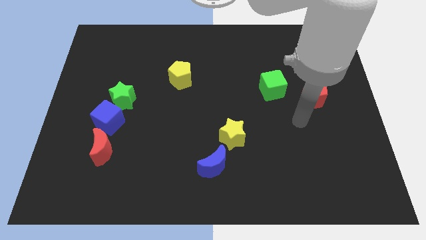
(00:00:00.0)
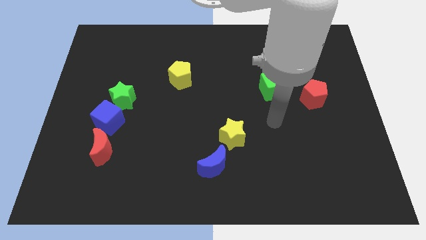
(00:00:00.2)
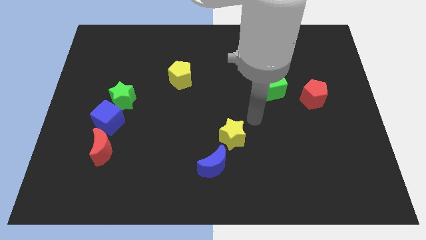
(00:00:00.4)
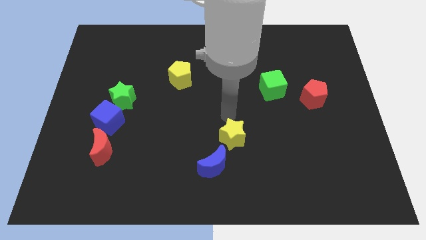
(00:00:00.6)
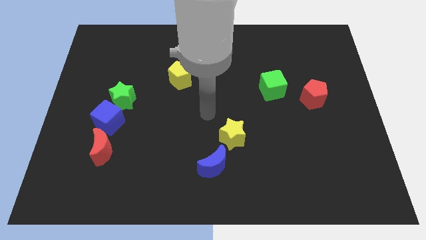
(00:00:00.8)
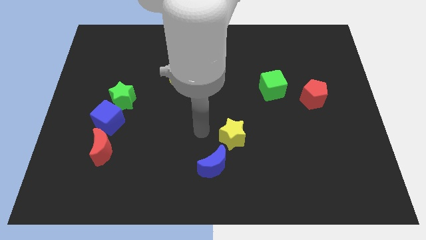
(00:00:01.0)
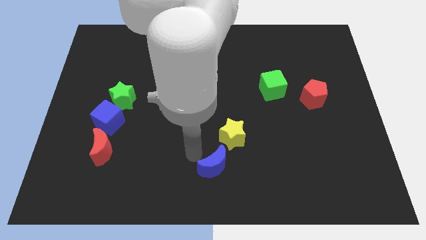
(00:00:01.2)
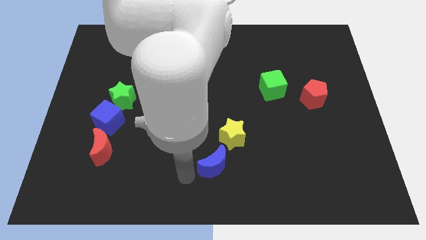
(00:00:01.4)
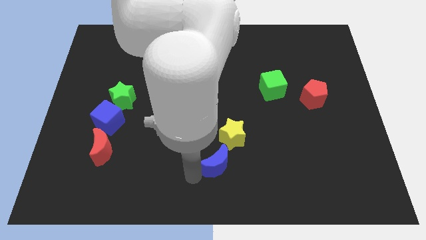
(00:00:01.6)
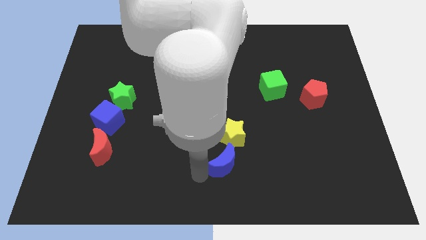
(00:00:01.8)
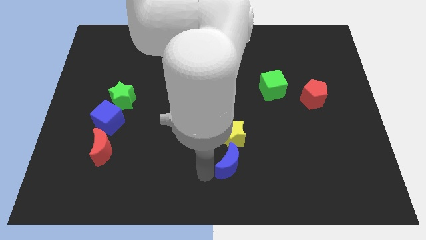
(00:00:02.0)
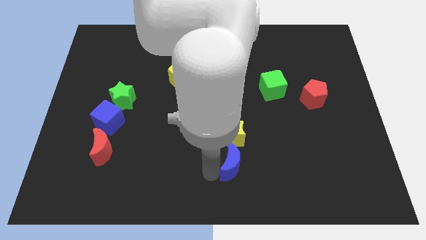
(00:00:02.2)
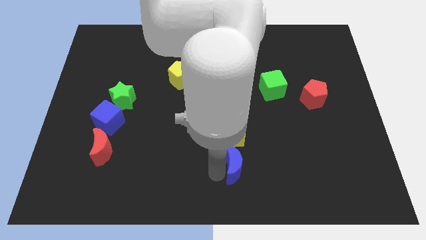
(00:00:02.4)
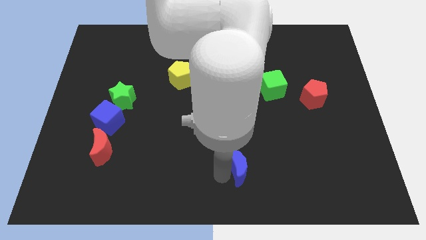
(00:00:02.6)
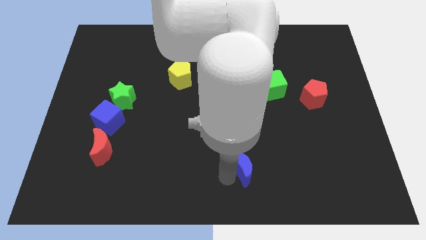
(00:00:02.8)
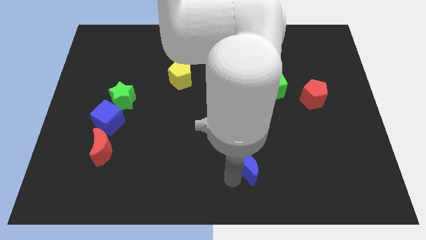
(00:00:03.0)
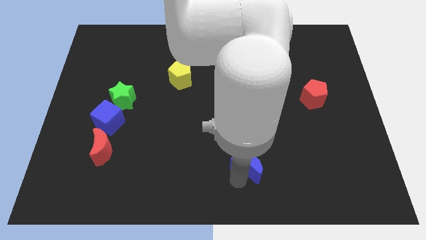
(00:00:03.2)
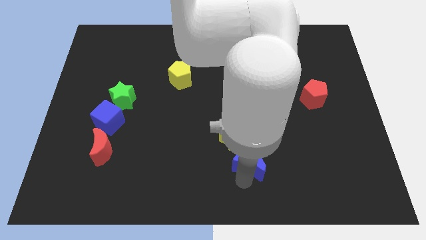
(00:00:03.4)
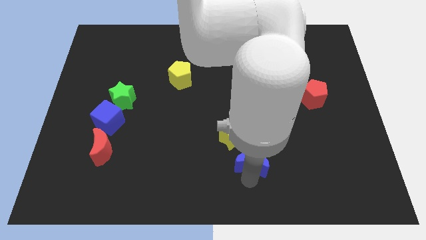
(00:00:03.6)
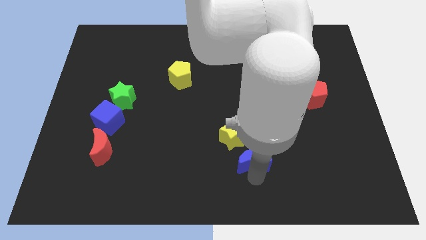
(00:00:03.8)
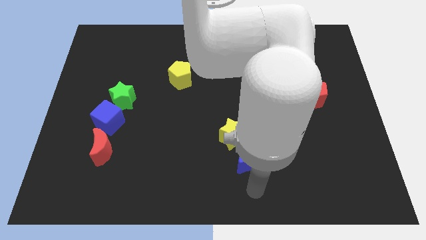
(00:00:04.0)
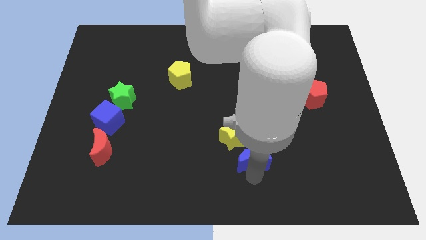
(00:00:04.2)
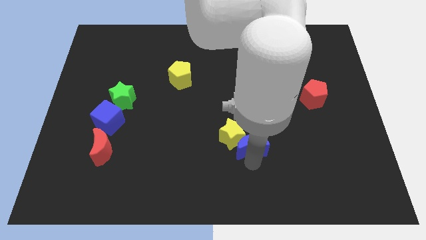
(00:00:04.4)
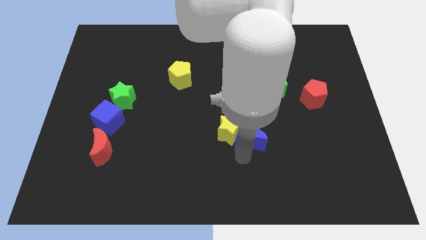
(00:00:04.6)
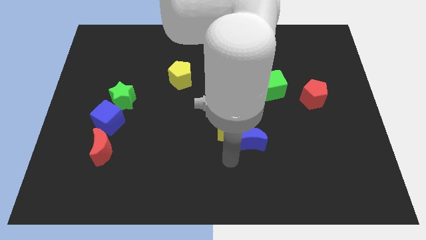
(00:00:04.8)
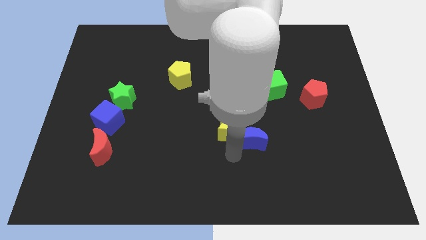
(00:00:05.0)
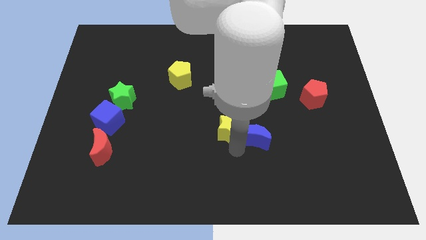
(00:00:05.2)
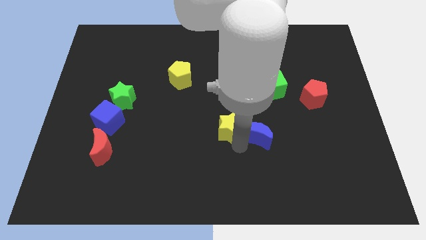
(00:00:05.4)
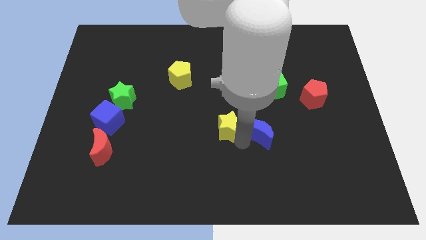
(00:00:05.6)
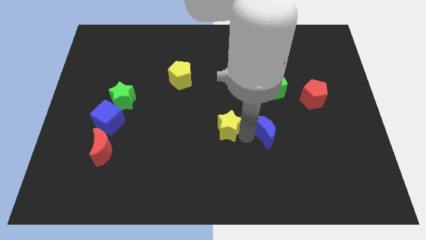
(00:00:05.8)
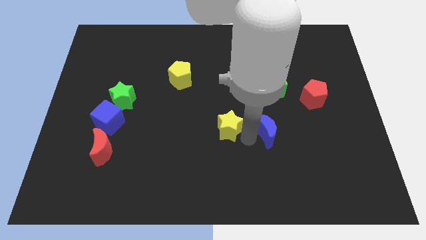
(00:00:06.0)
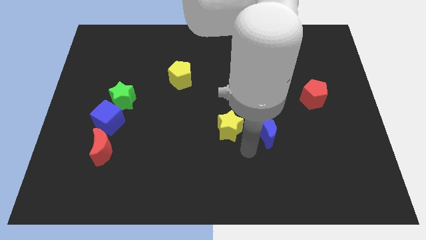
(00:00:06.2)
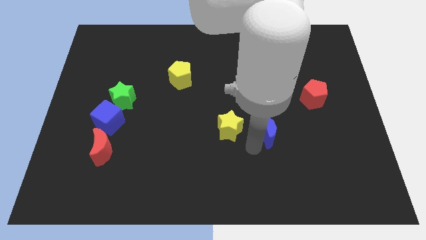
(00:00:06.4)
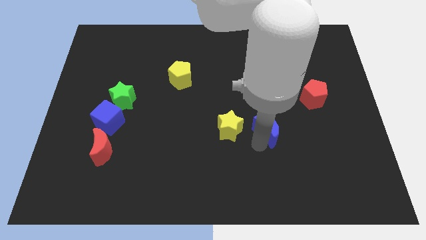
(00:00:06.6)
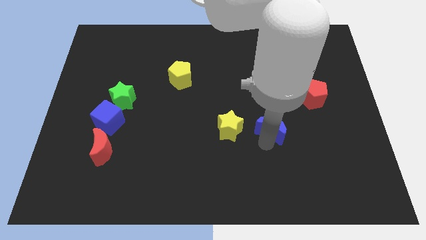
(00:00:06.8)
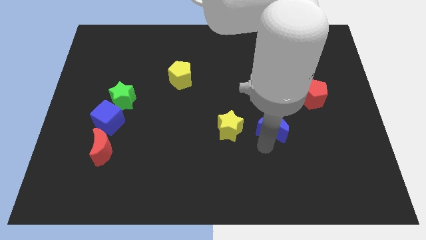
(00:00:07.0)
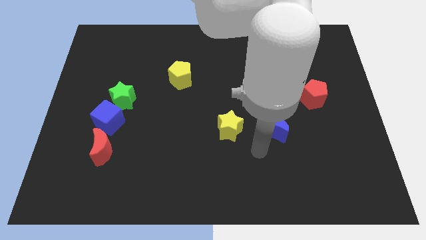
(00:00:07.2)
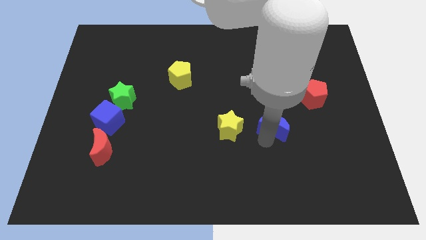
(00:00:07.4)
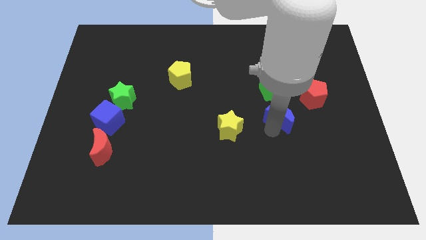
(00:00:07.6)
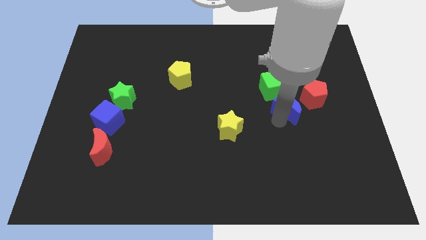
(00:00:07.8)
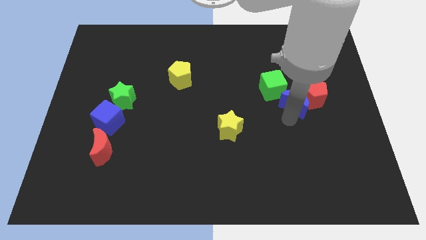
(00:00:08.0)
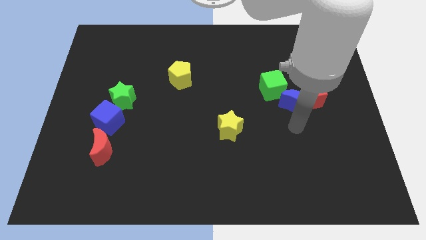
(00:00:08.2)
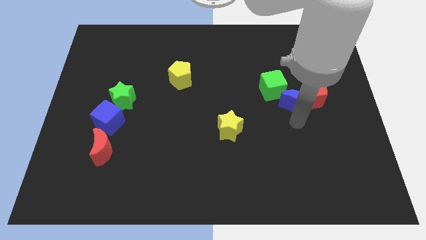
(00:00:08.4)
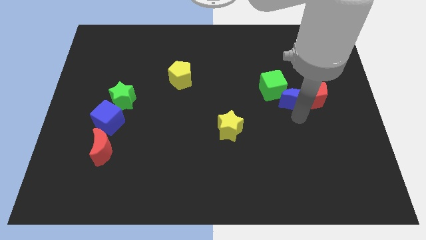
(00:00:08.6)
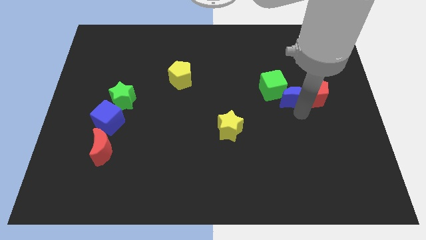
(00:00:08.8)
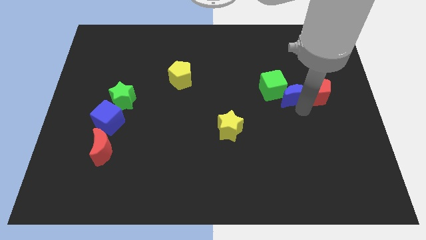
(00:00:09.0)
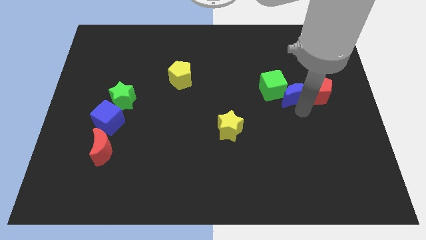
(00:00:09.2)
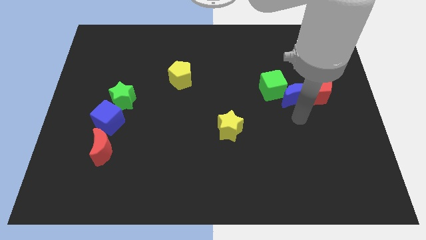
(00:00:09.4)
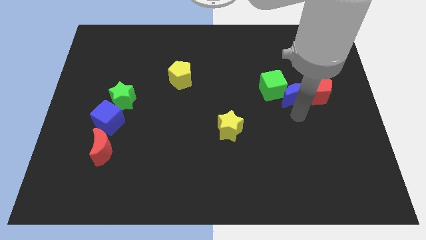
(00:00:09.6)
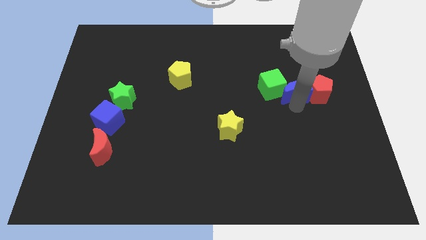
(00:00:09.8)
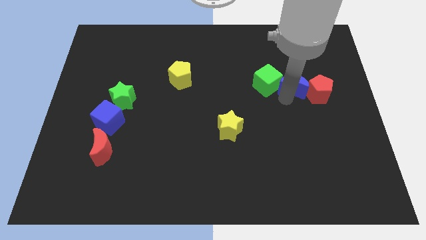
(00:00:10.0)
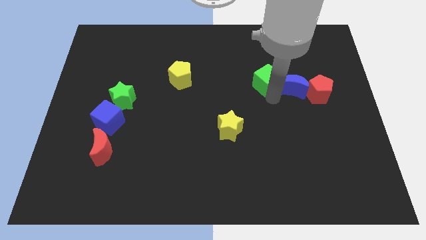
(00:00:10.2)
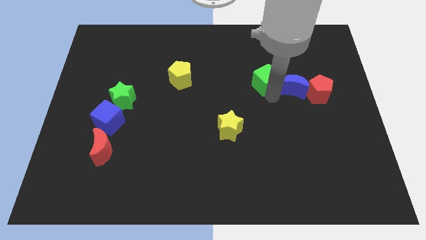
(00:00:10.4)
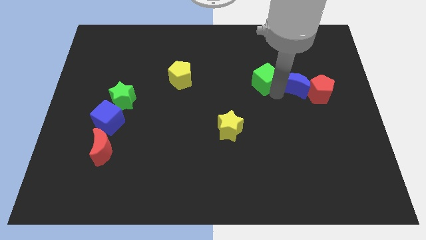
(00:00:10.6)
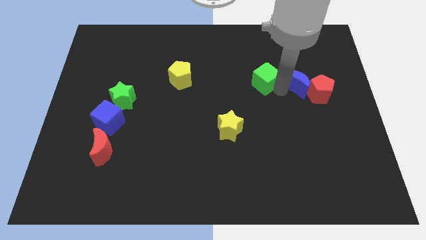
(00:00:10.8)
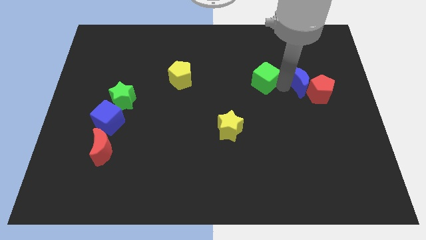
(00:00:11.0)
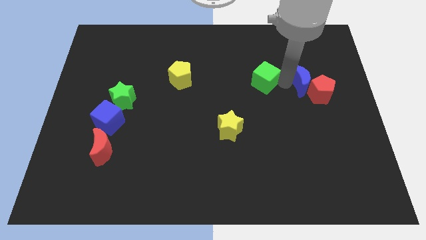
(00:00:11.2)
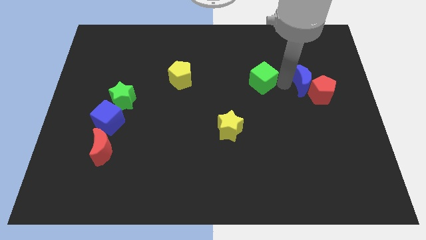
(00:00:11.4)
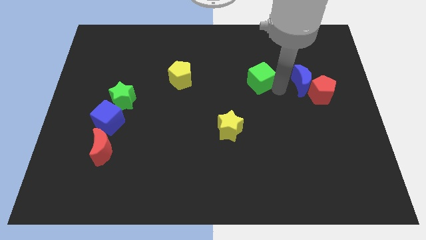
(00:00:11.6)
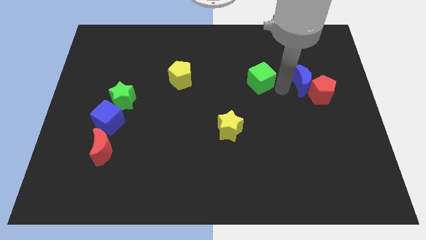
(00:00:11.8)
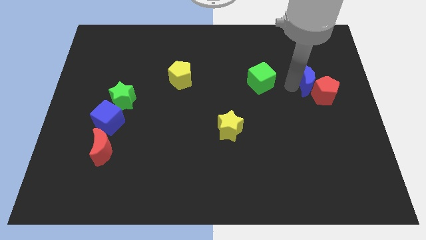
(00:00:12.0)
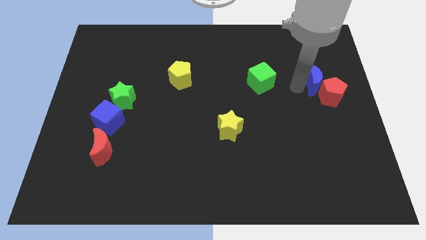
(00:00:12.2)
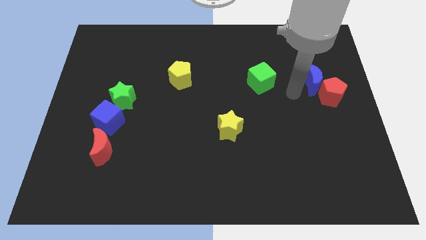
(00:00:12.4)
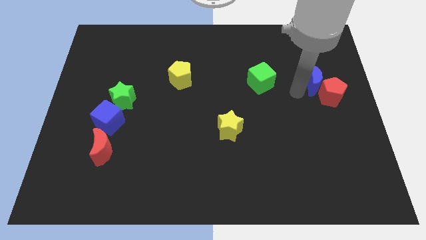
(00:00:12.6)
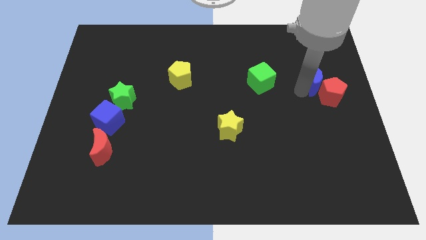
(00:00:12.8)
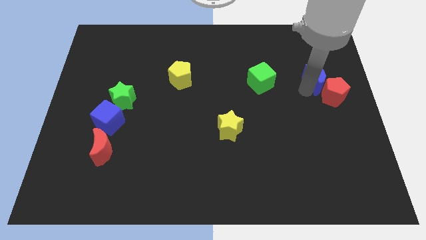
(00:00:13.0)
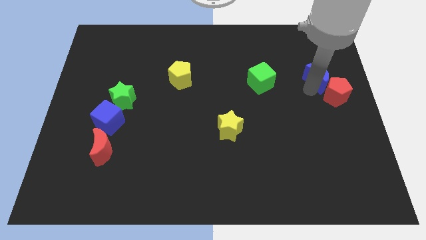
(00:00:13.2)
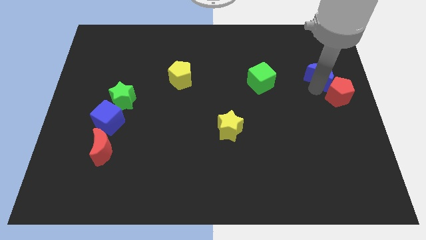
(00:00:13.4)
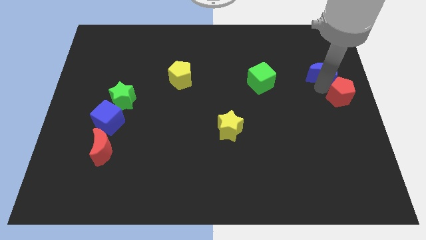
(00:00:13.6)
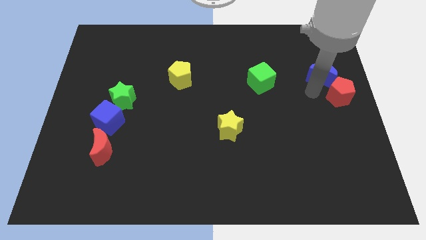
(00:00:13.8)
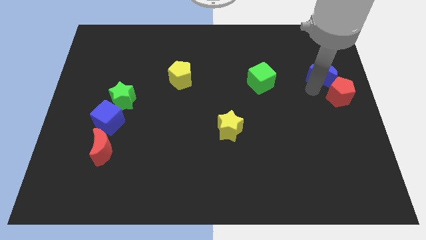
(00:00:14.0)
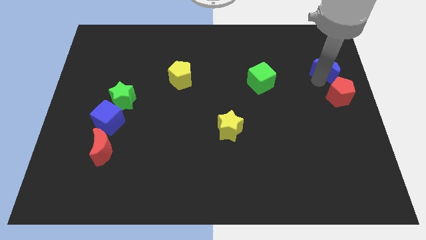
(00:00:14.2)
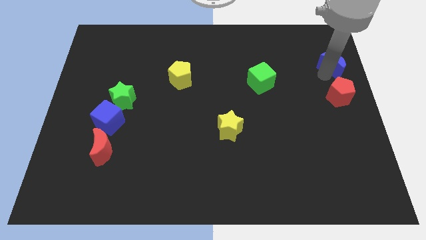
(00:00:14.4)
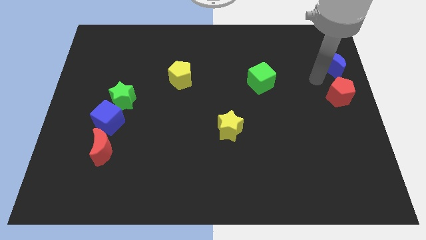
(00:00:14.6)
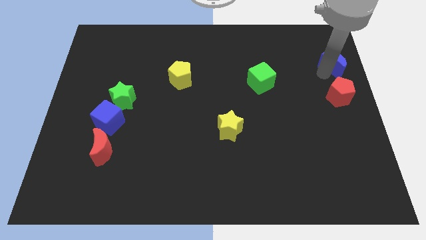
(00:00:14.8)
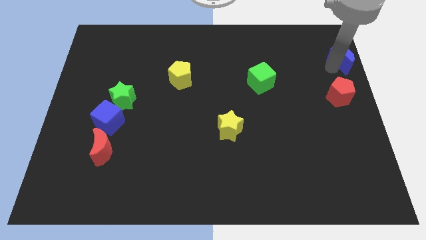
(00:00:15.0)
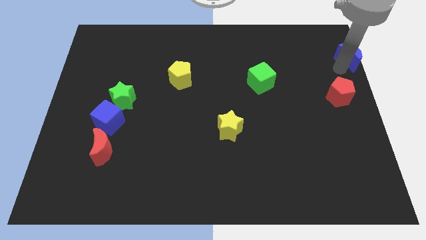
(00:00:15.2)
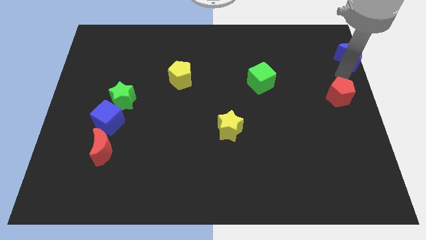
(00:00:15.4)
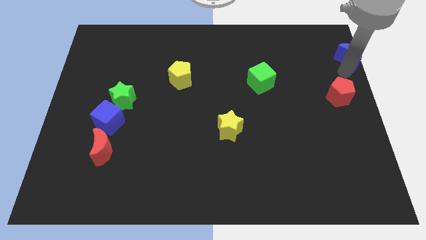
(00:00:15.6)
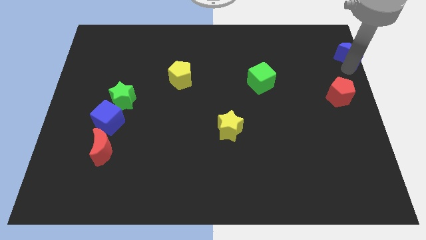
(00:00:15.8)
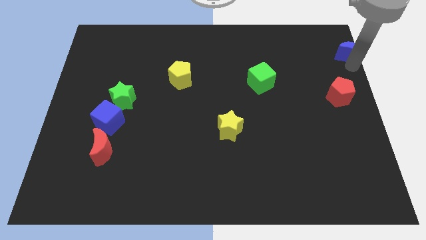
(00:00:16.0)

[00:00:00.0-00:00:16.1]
slide the blue moon to the top right
